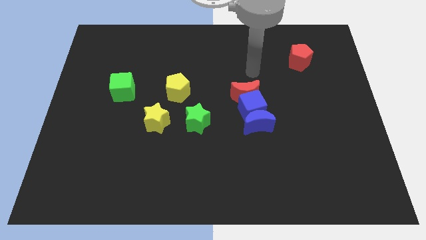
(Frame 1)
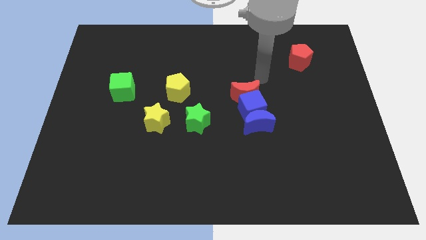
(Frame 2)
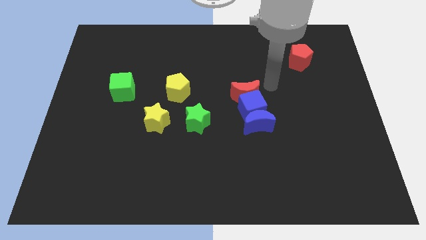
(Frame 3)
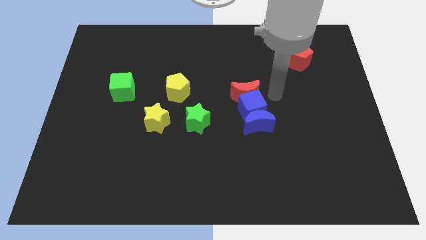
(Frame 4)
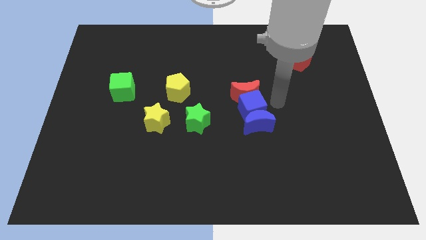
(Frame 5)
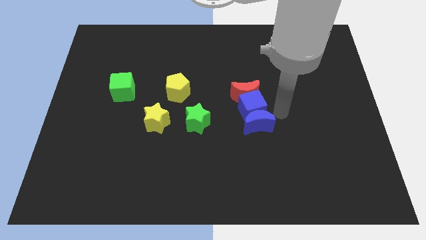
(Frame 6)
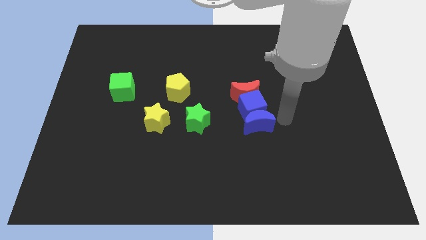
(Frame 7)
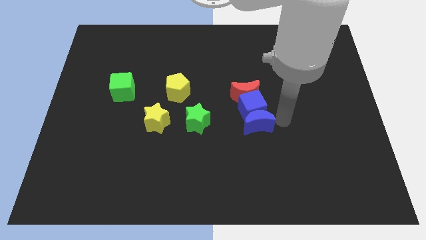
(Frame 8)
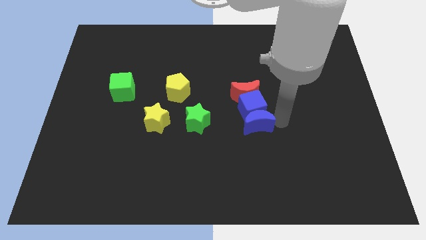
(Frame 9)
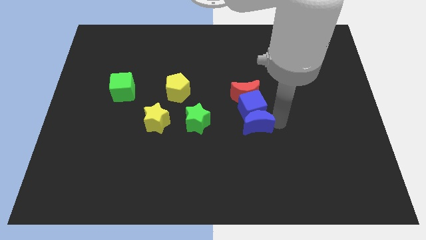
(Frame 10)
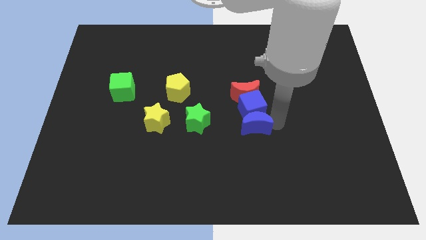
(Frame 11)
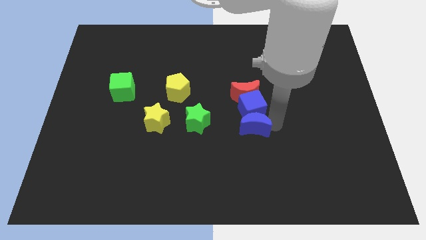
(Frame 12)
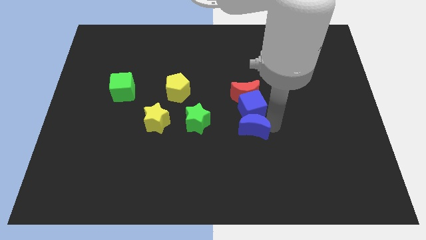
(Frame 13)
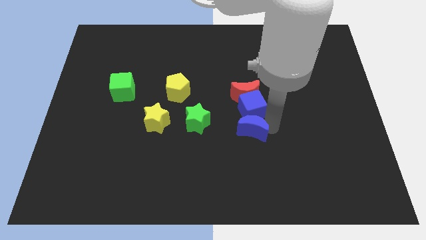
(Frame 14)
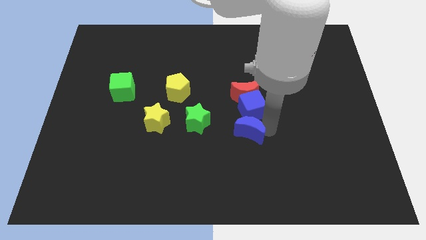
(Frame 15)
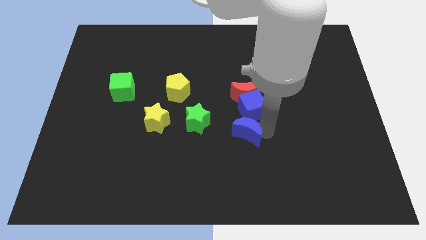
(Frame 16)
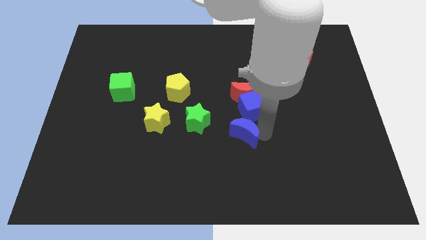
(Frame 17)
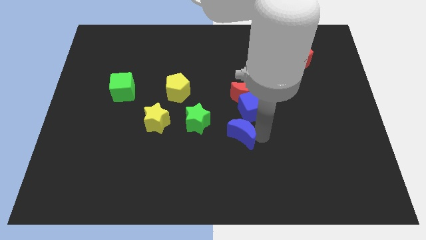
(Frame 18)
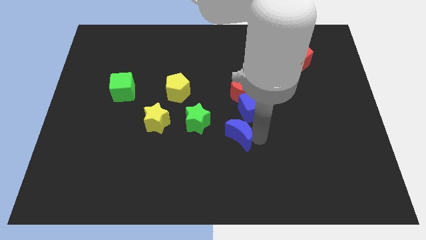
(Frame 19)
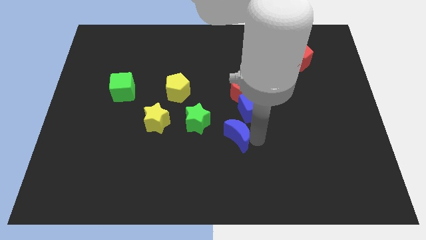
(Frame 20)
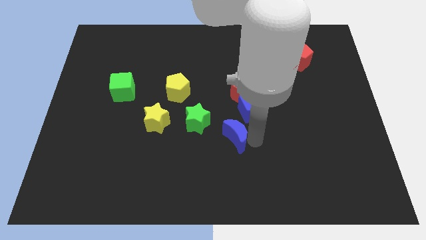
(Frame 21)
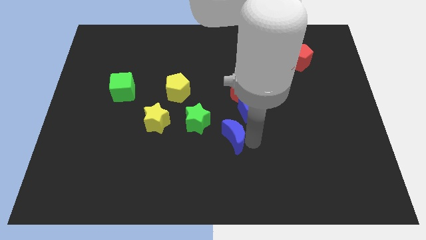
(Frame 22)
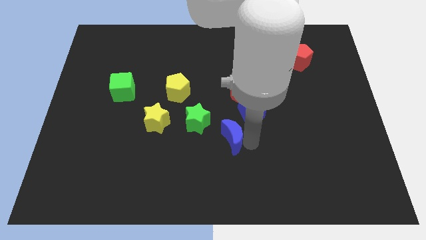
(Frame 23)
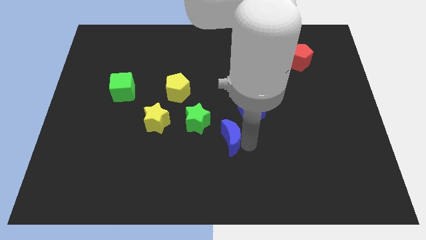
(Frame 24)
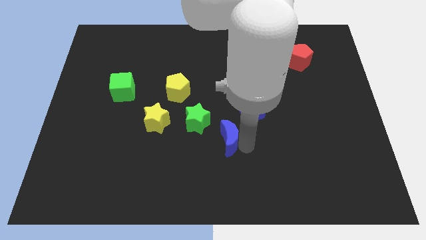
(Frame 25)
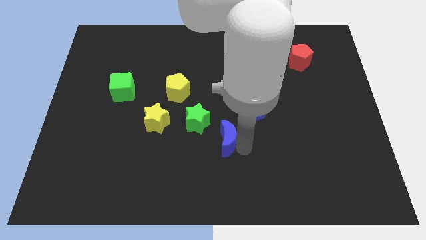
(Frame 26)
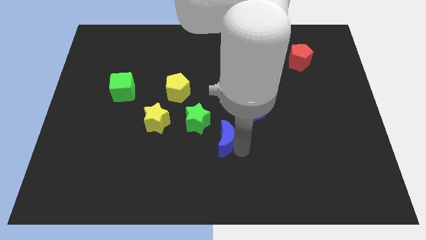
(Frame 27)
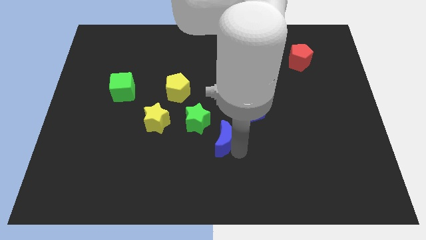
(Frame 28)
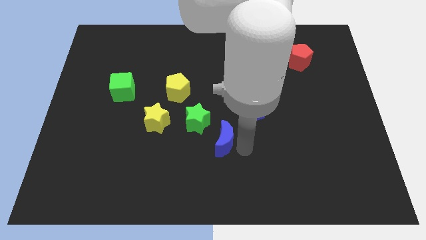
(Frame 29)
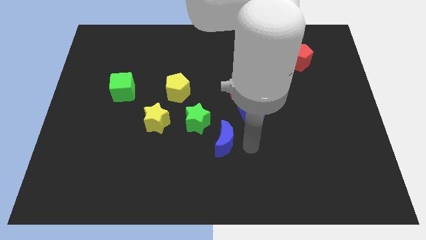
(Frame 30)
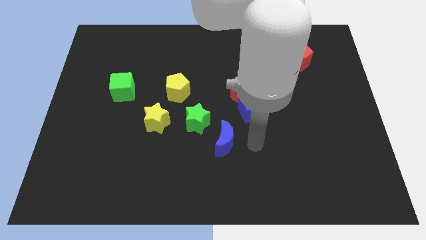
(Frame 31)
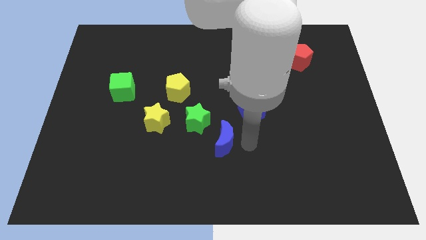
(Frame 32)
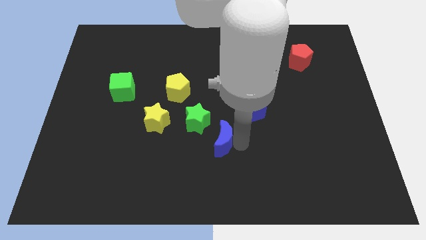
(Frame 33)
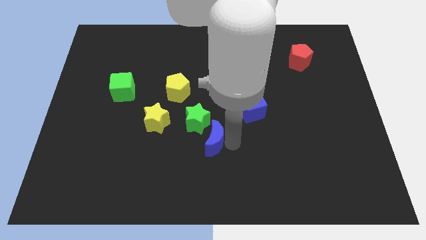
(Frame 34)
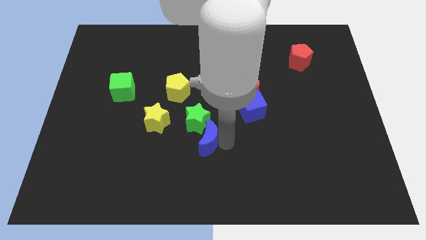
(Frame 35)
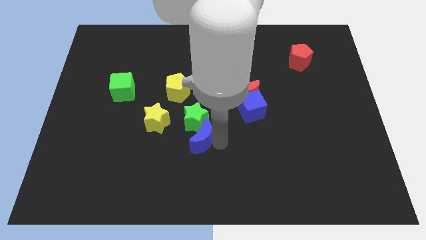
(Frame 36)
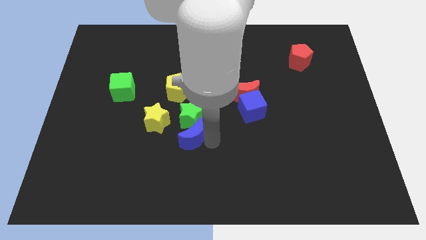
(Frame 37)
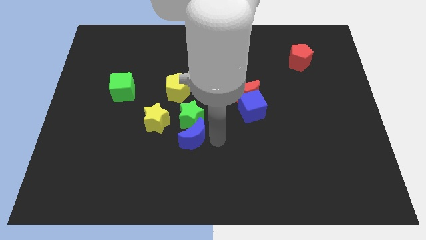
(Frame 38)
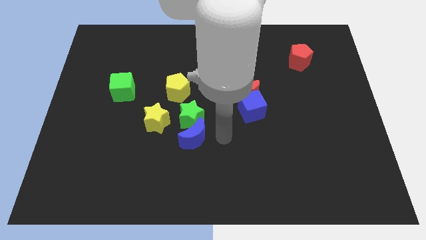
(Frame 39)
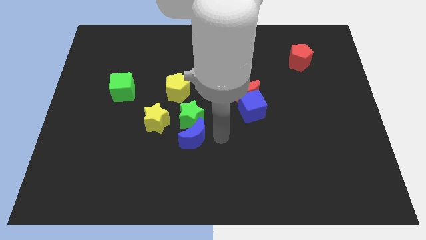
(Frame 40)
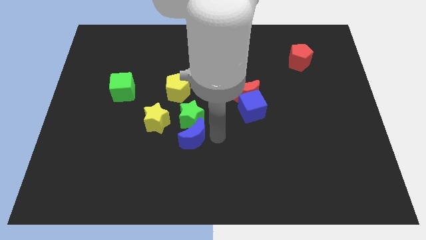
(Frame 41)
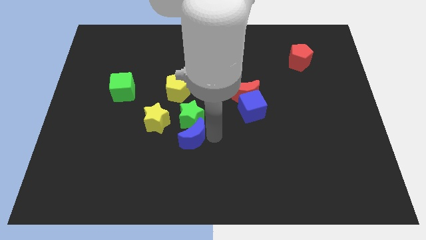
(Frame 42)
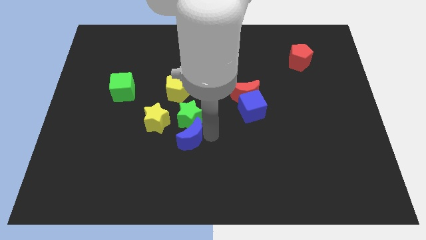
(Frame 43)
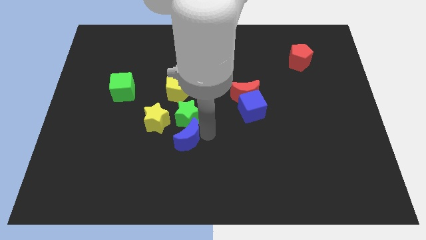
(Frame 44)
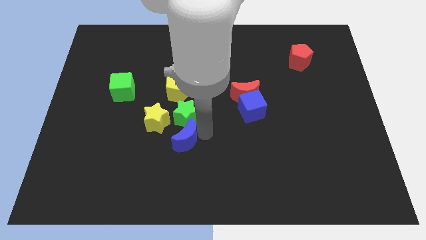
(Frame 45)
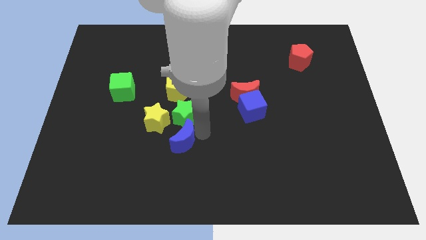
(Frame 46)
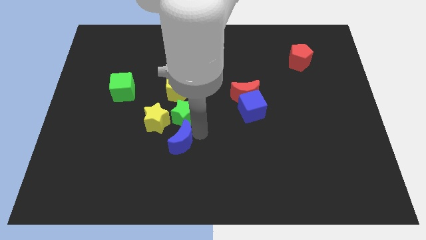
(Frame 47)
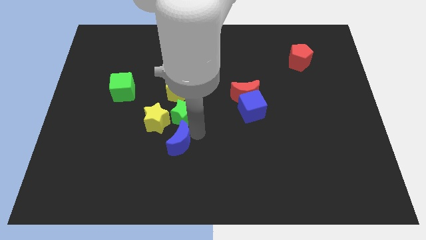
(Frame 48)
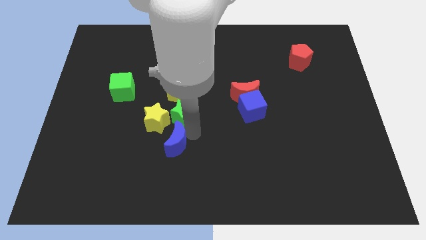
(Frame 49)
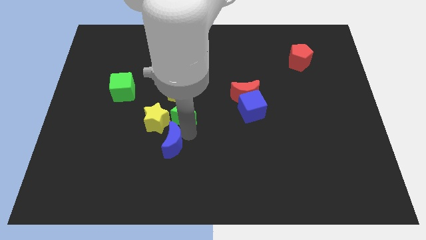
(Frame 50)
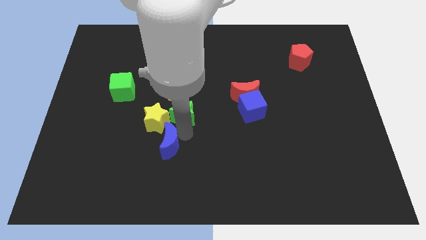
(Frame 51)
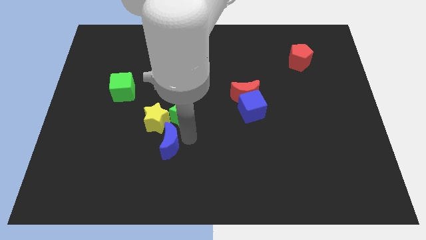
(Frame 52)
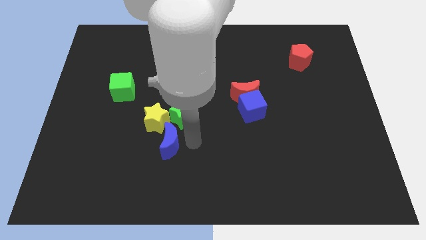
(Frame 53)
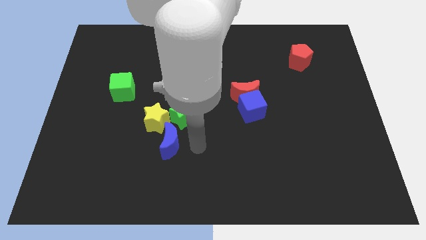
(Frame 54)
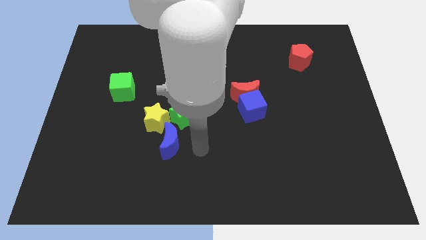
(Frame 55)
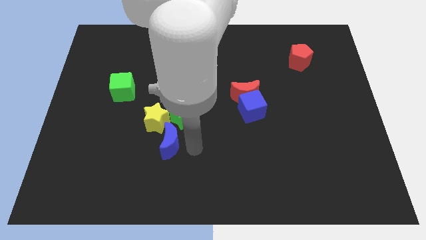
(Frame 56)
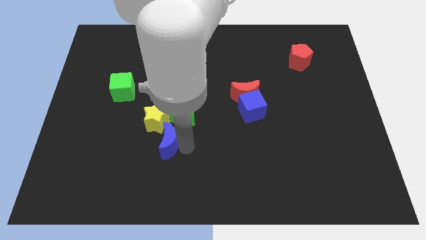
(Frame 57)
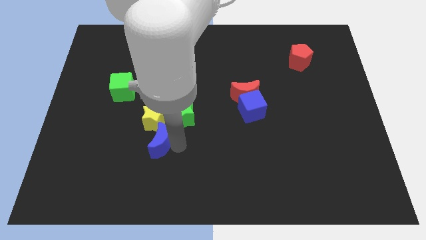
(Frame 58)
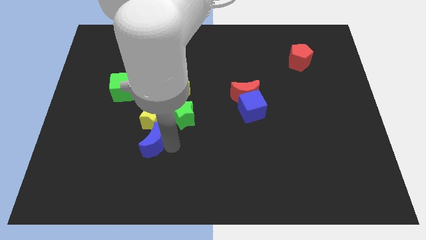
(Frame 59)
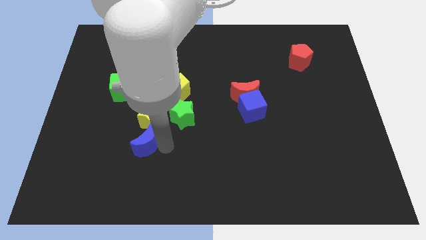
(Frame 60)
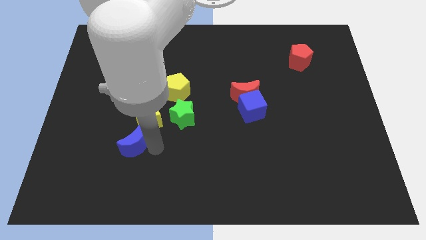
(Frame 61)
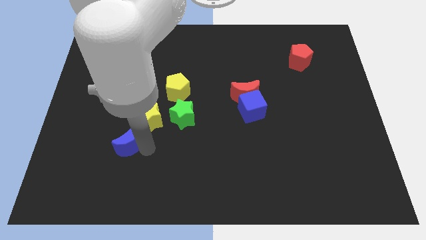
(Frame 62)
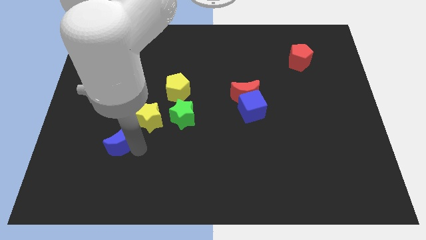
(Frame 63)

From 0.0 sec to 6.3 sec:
move the blue moon to the bottom side of the green cube

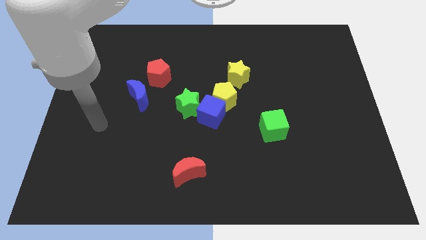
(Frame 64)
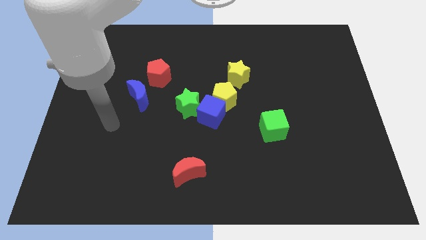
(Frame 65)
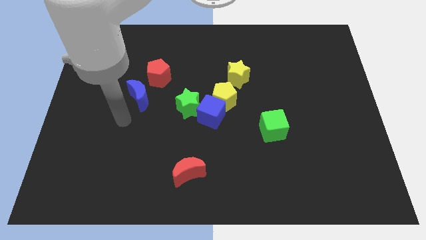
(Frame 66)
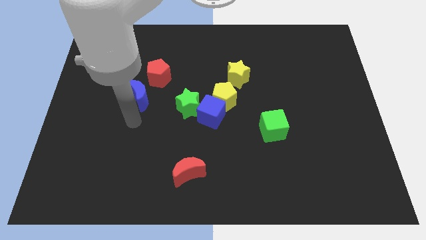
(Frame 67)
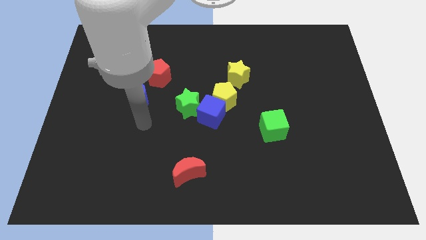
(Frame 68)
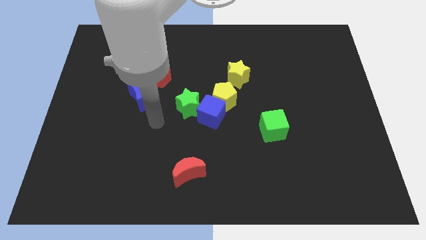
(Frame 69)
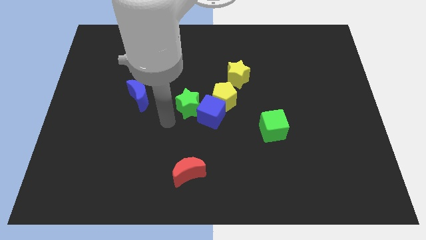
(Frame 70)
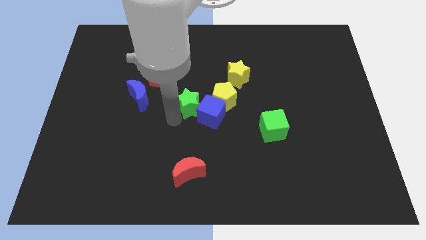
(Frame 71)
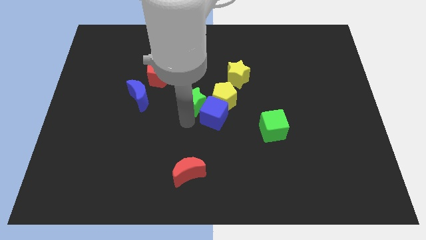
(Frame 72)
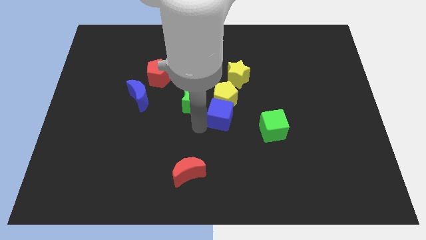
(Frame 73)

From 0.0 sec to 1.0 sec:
slide the yellow star to the top side of the blue cube
